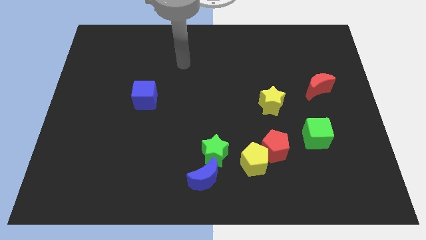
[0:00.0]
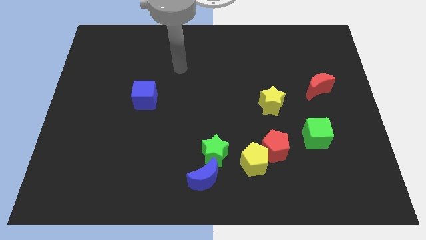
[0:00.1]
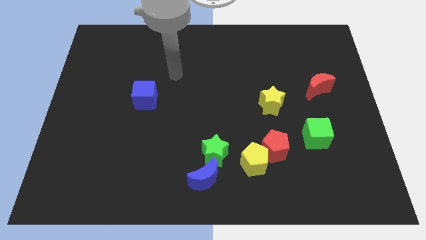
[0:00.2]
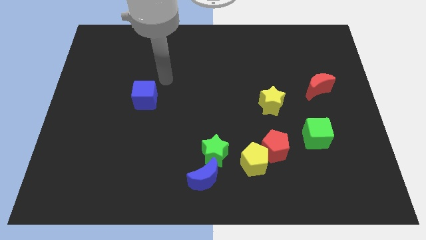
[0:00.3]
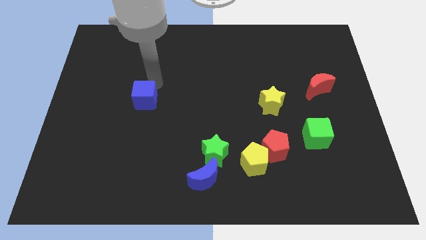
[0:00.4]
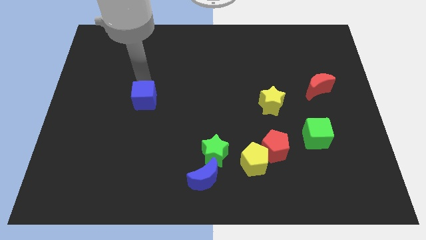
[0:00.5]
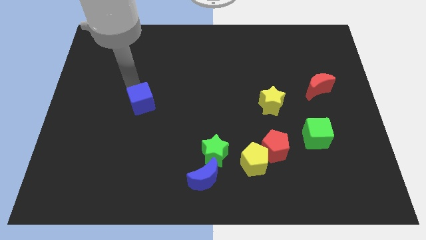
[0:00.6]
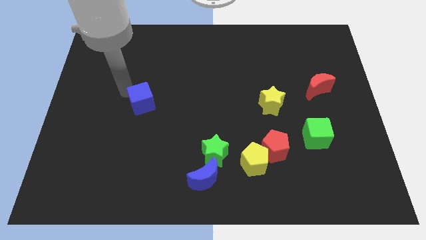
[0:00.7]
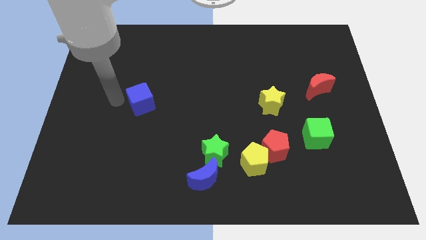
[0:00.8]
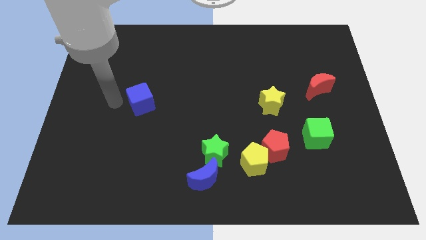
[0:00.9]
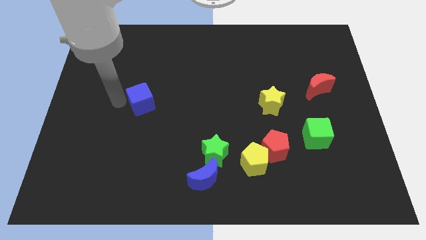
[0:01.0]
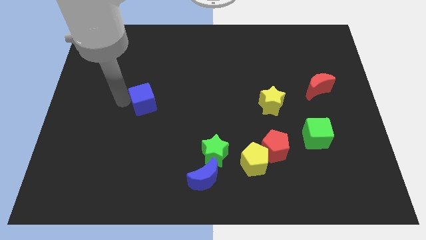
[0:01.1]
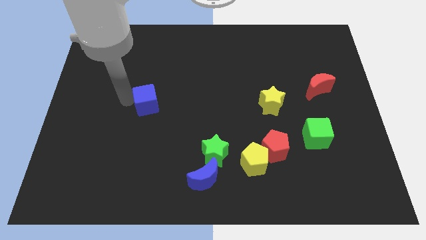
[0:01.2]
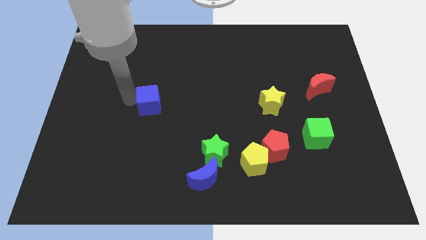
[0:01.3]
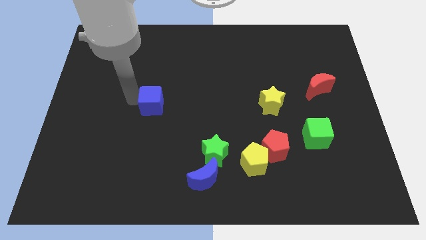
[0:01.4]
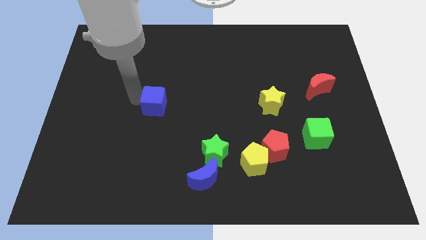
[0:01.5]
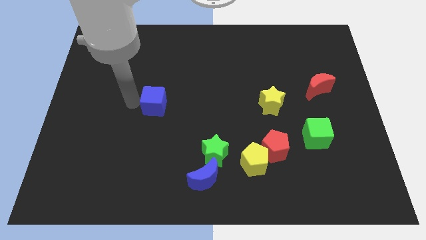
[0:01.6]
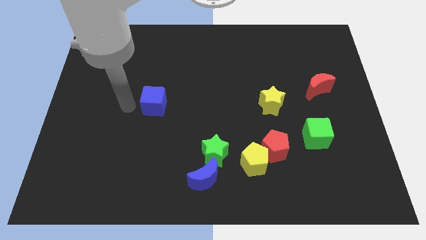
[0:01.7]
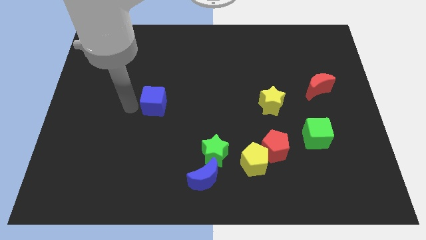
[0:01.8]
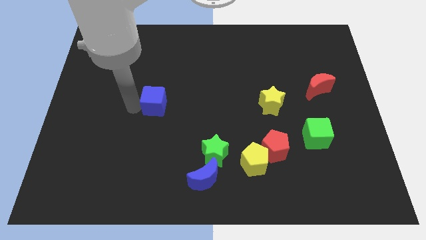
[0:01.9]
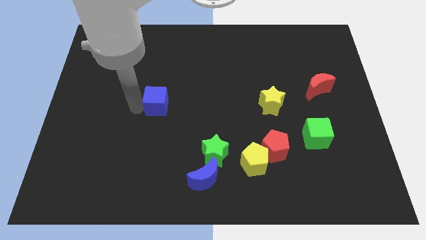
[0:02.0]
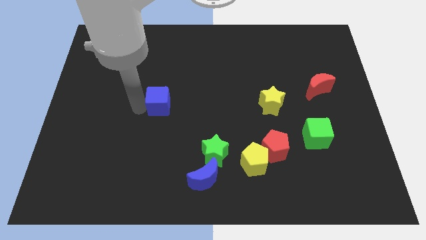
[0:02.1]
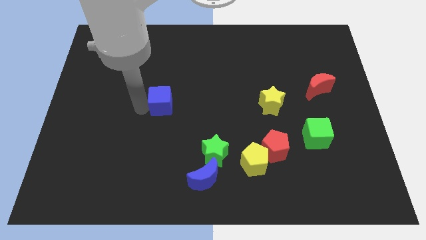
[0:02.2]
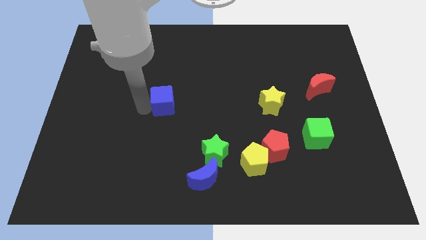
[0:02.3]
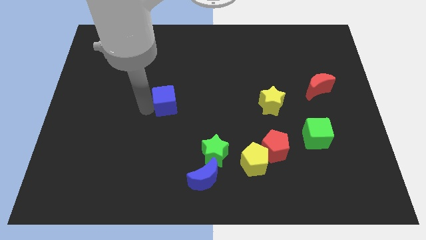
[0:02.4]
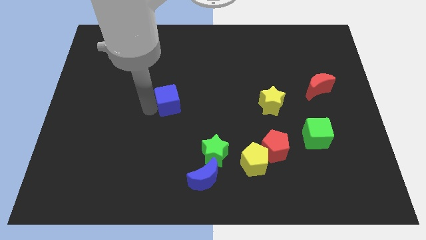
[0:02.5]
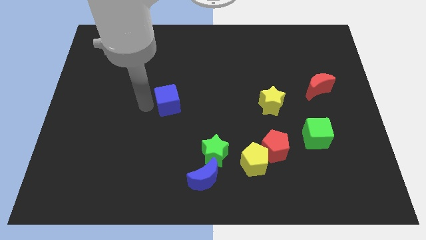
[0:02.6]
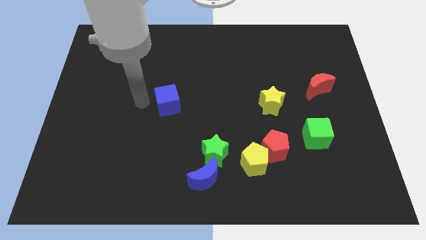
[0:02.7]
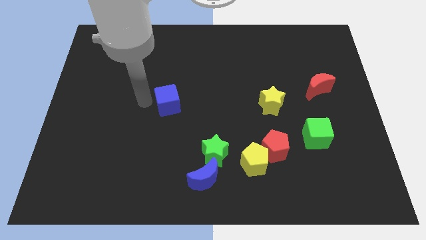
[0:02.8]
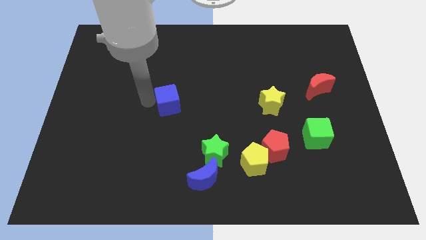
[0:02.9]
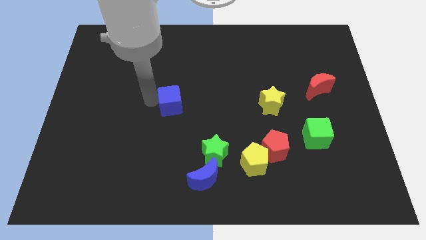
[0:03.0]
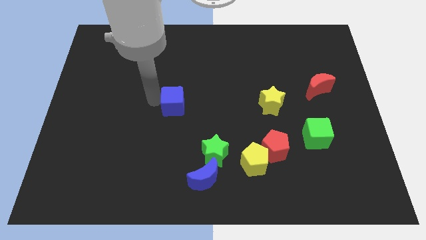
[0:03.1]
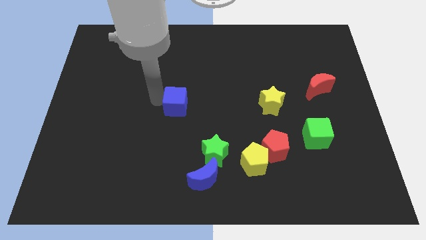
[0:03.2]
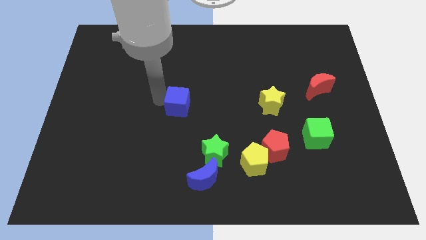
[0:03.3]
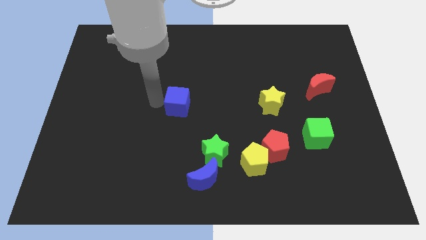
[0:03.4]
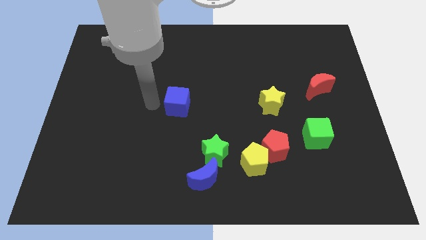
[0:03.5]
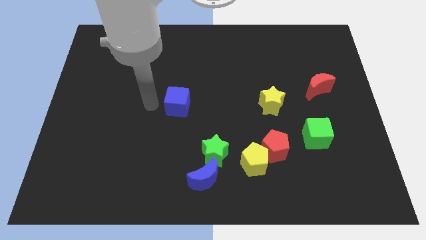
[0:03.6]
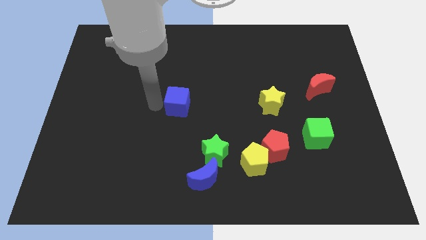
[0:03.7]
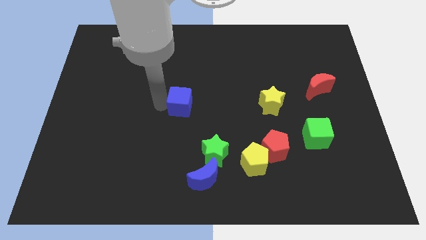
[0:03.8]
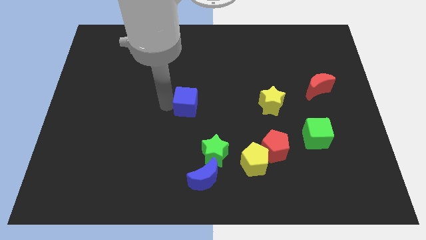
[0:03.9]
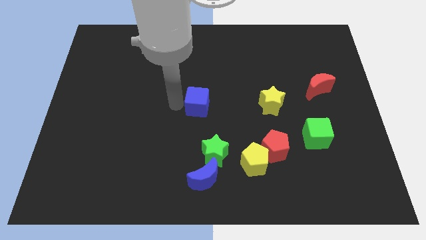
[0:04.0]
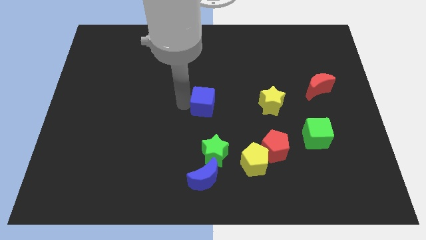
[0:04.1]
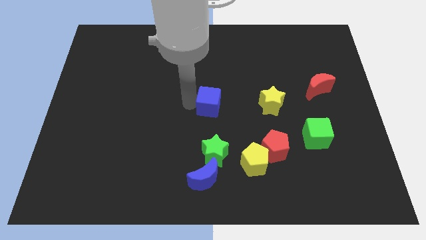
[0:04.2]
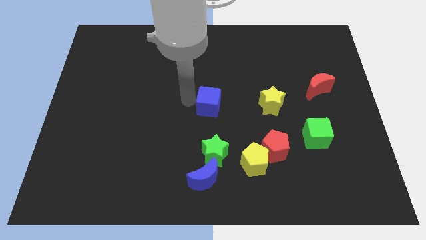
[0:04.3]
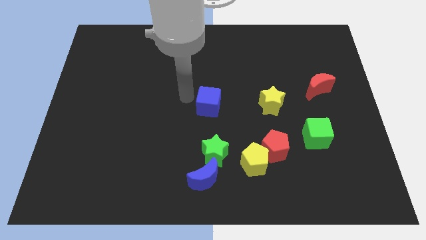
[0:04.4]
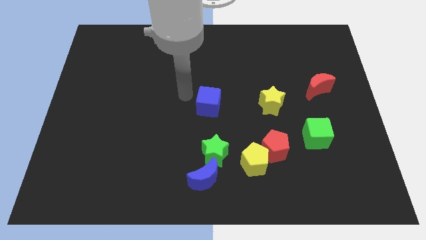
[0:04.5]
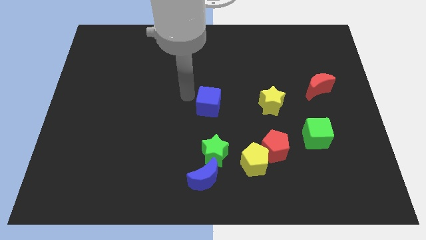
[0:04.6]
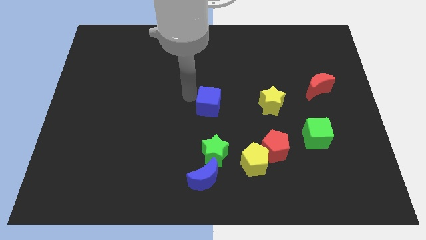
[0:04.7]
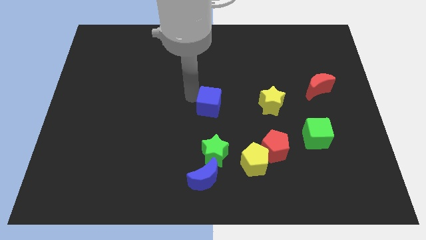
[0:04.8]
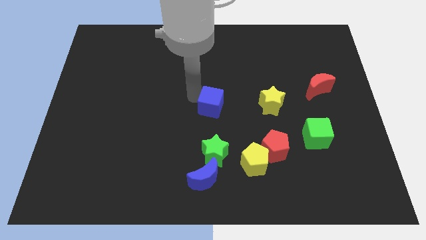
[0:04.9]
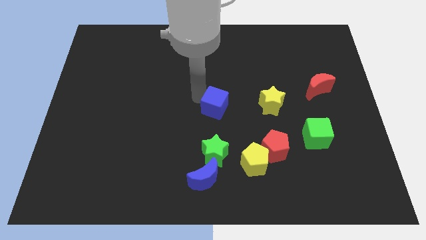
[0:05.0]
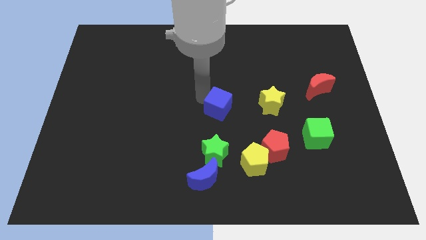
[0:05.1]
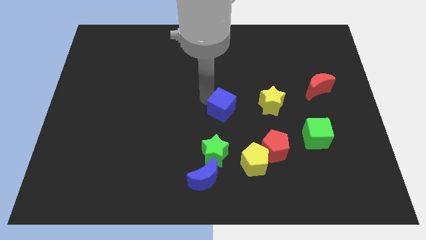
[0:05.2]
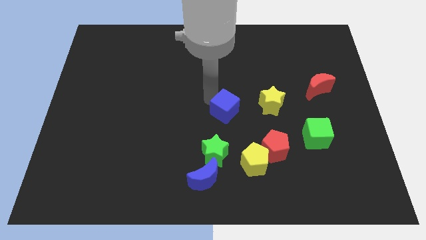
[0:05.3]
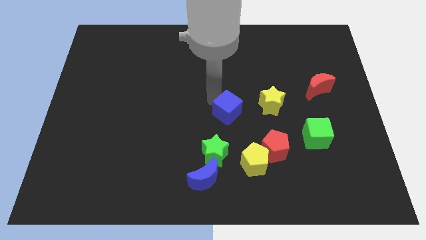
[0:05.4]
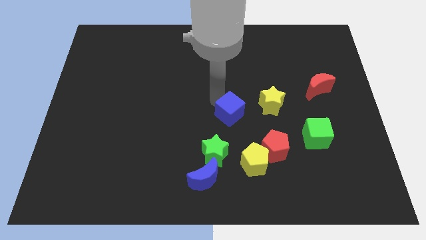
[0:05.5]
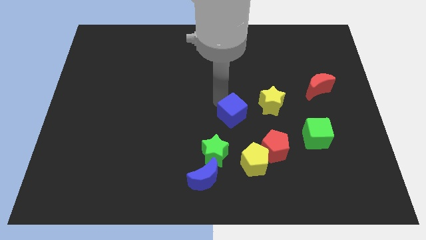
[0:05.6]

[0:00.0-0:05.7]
move the blue cube diagonally up and to the left of the red pentagon

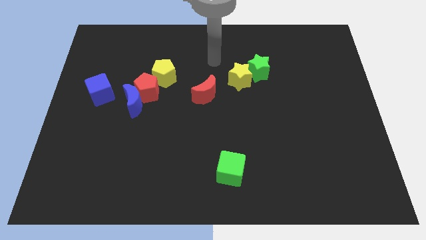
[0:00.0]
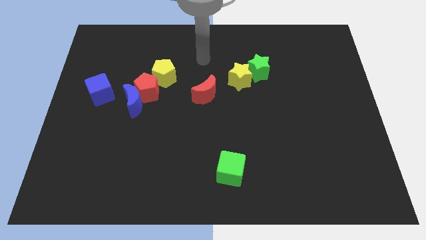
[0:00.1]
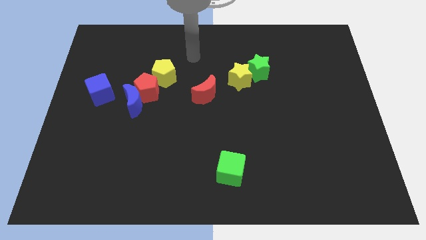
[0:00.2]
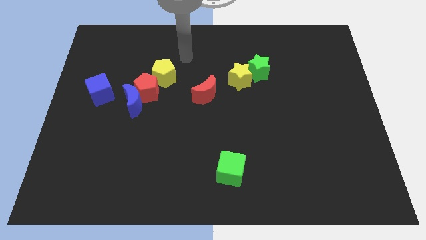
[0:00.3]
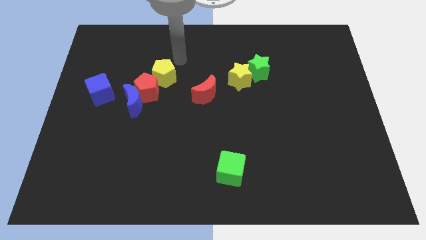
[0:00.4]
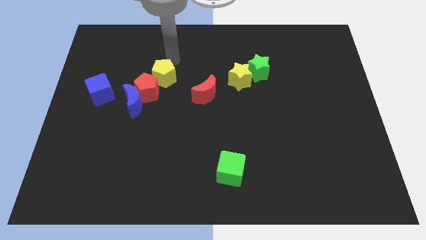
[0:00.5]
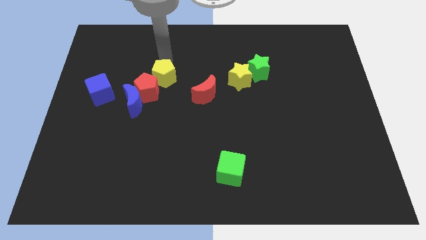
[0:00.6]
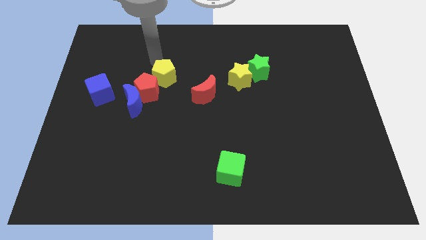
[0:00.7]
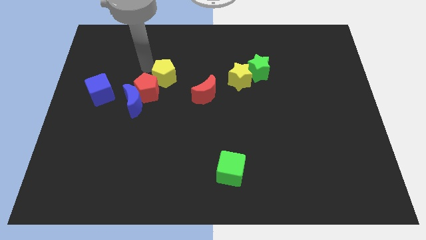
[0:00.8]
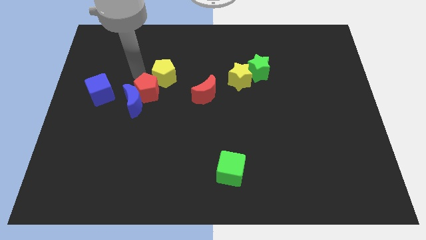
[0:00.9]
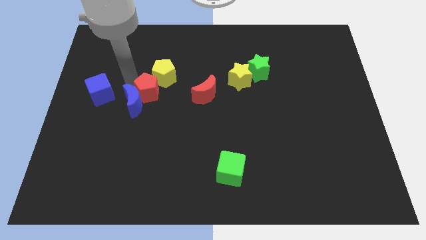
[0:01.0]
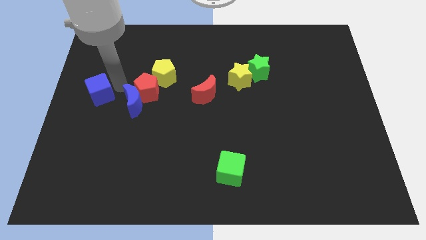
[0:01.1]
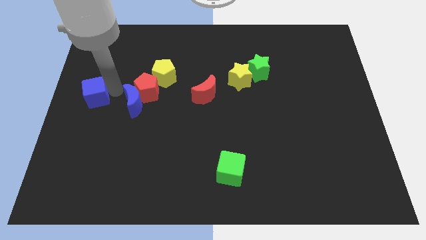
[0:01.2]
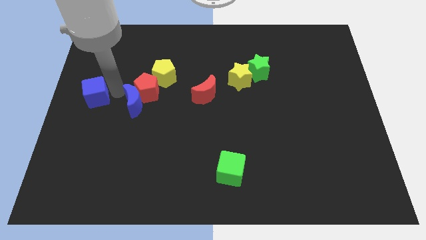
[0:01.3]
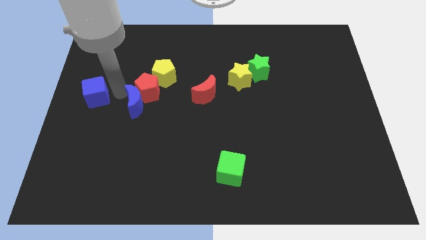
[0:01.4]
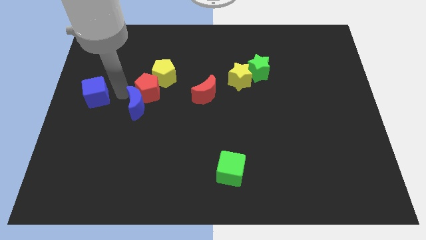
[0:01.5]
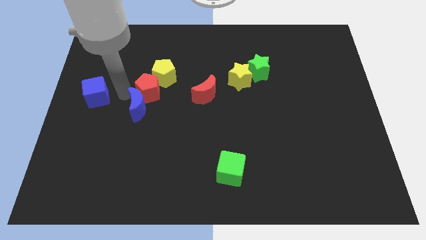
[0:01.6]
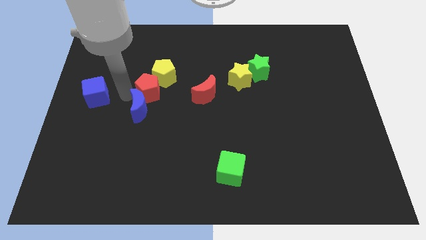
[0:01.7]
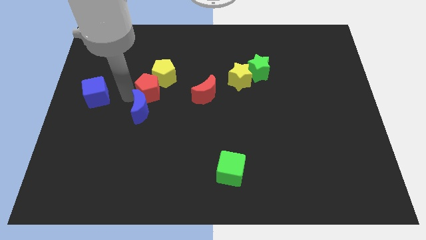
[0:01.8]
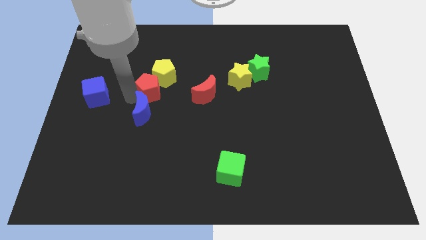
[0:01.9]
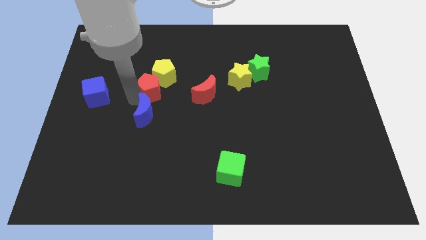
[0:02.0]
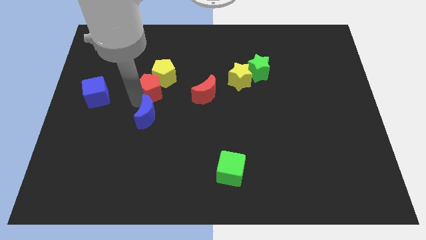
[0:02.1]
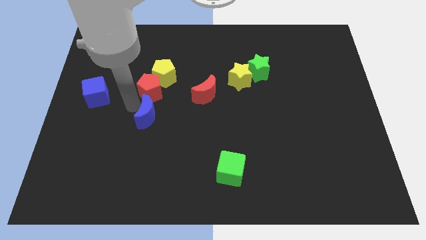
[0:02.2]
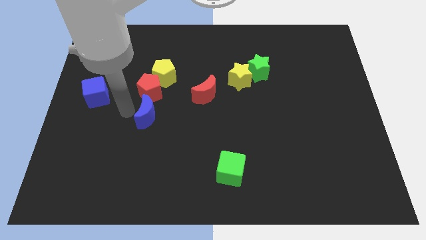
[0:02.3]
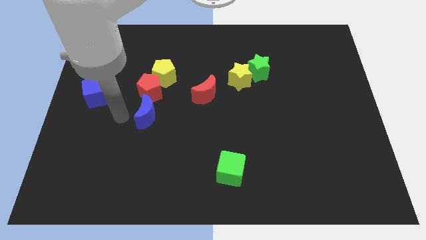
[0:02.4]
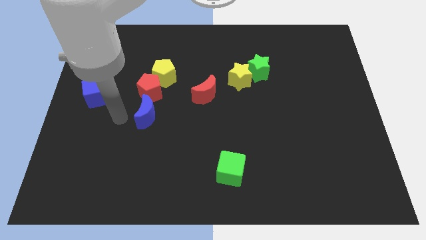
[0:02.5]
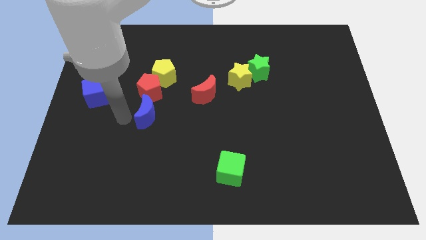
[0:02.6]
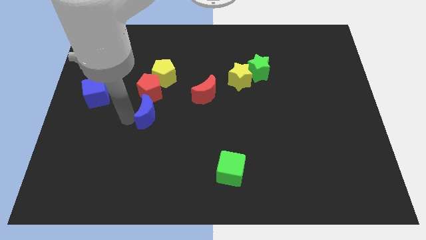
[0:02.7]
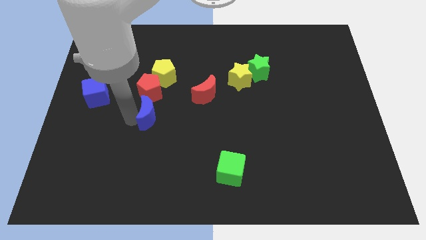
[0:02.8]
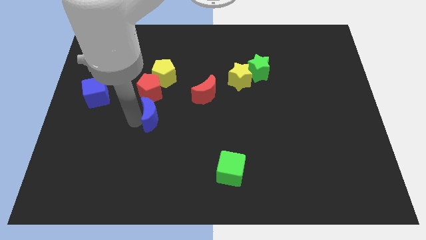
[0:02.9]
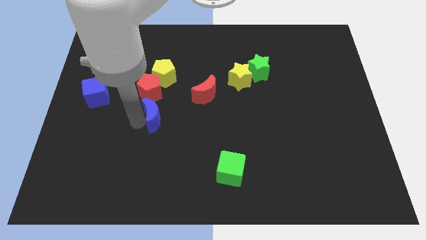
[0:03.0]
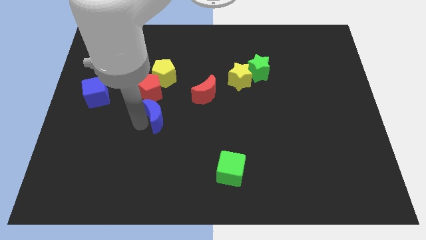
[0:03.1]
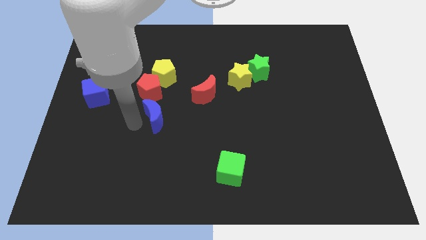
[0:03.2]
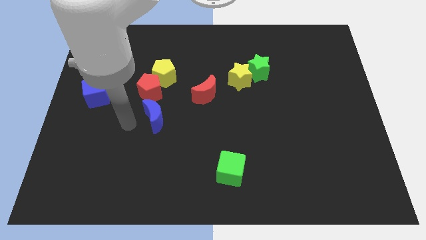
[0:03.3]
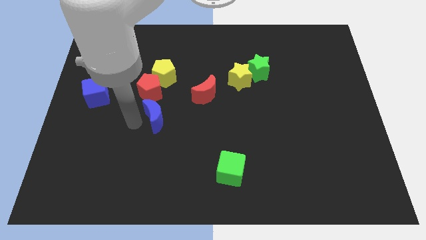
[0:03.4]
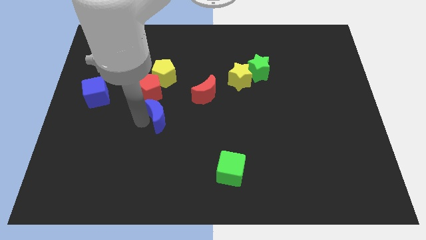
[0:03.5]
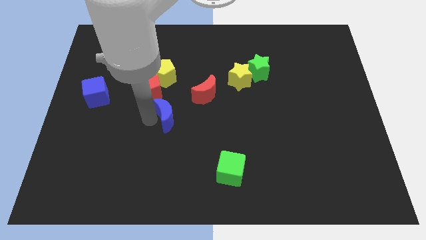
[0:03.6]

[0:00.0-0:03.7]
put the blue moon diagonally down and to the left of the red moon
